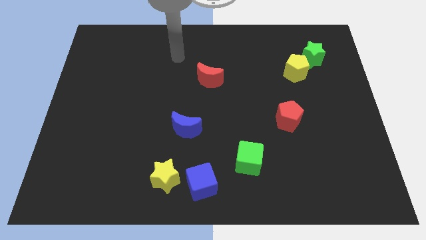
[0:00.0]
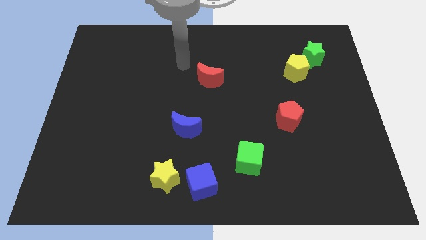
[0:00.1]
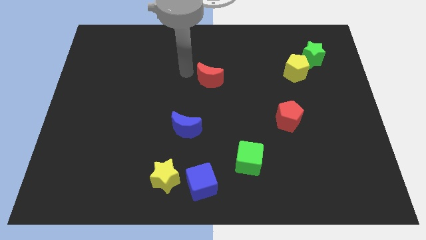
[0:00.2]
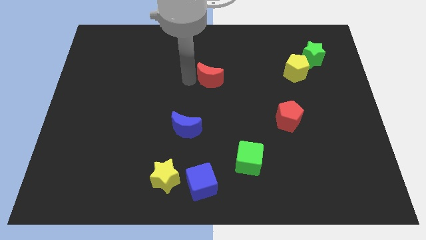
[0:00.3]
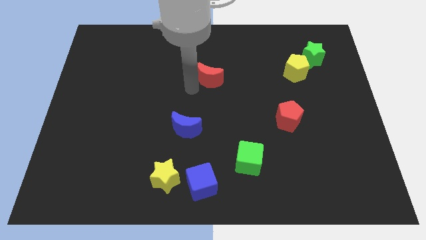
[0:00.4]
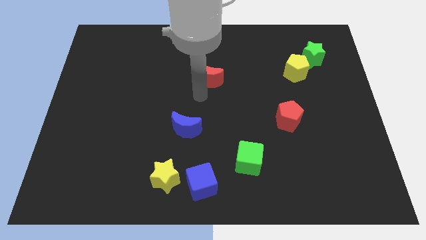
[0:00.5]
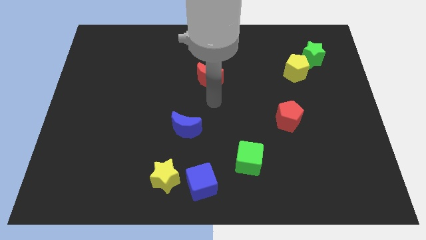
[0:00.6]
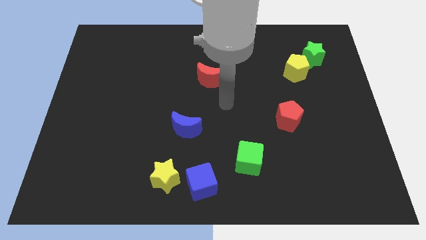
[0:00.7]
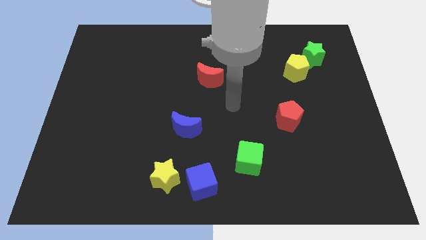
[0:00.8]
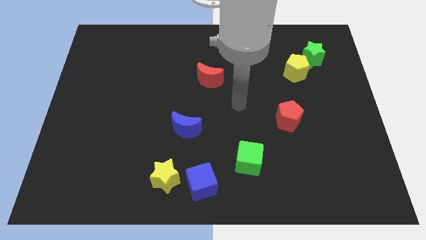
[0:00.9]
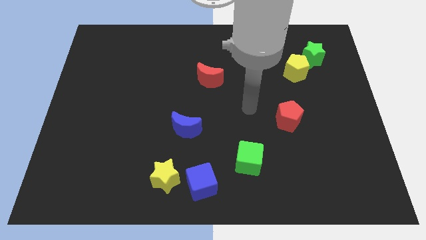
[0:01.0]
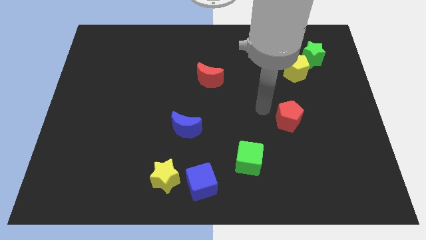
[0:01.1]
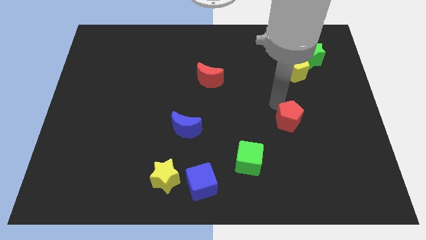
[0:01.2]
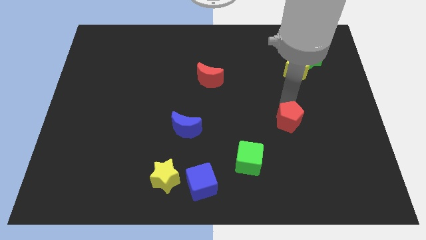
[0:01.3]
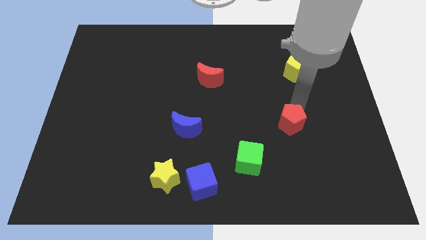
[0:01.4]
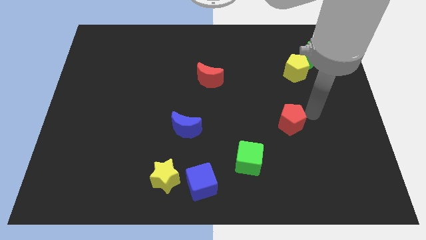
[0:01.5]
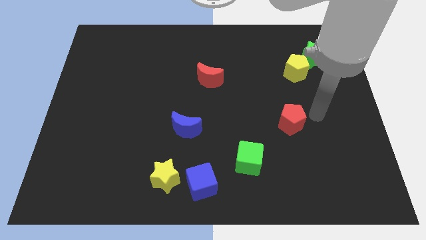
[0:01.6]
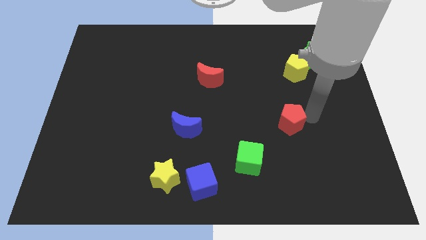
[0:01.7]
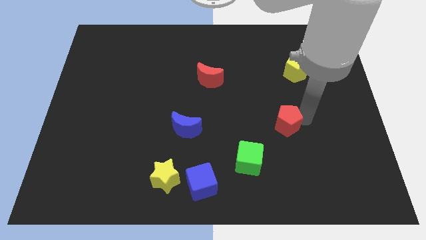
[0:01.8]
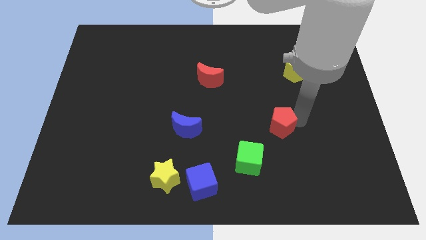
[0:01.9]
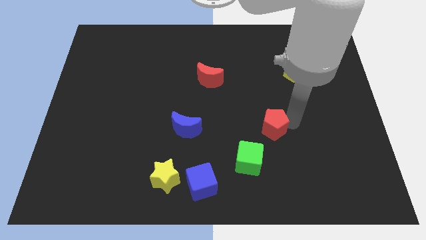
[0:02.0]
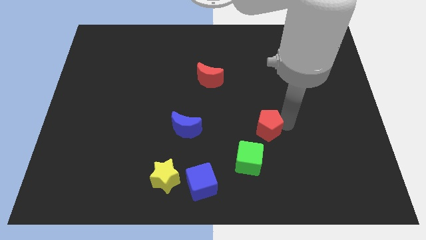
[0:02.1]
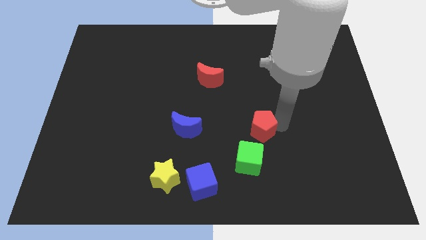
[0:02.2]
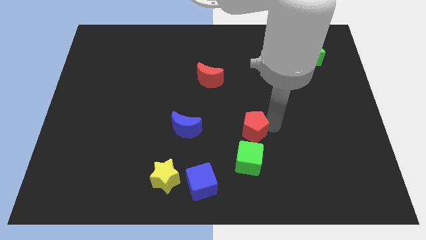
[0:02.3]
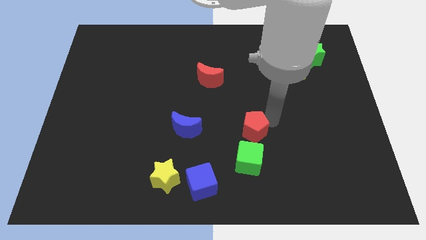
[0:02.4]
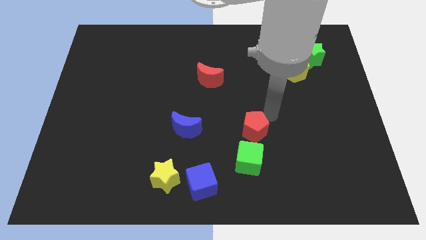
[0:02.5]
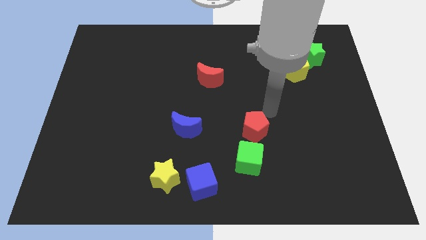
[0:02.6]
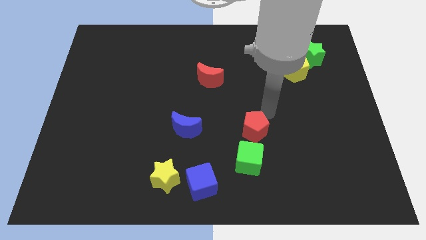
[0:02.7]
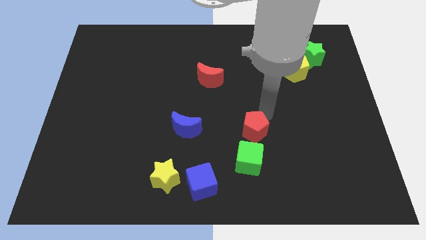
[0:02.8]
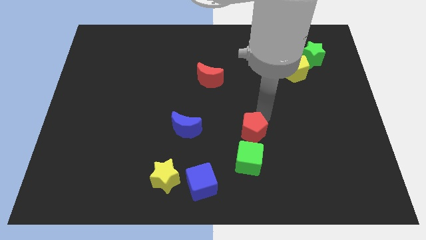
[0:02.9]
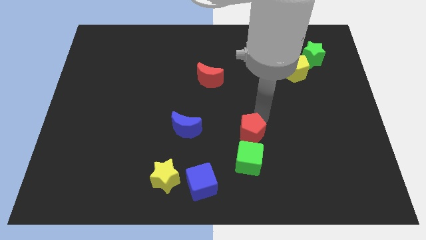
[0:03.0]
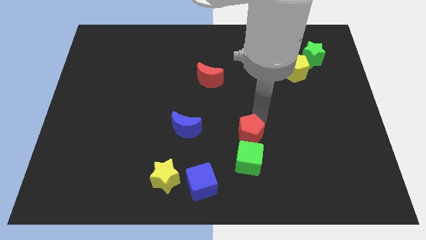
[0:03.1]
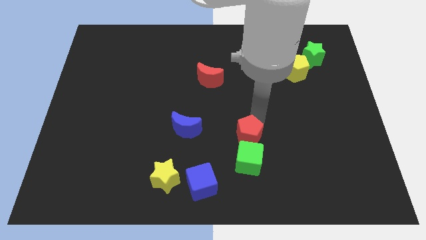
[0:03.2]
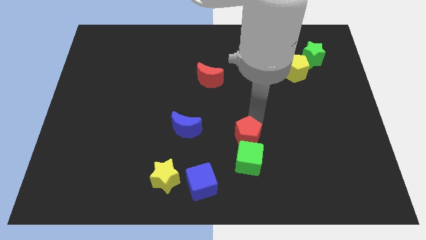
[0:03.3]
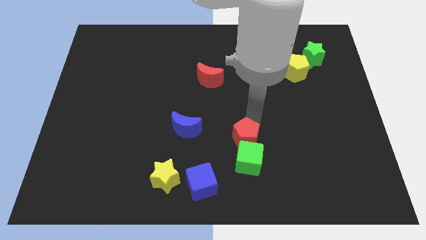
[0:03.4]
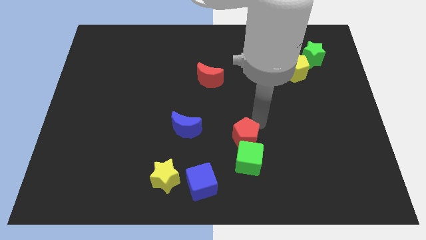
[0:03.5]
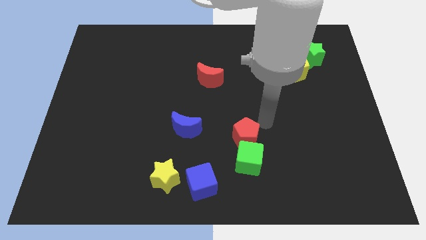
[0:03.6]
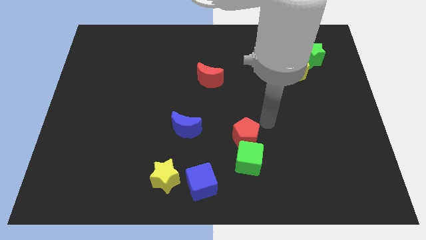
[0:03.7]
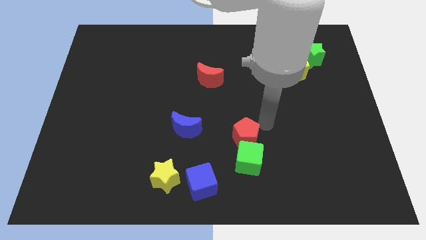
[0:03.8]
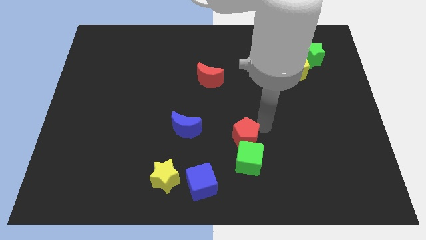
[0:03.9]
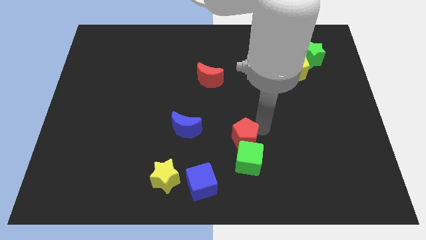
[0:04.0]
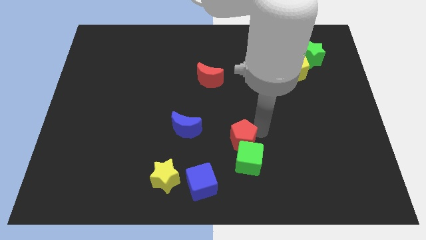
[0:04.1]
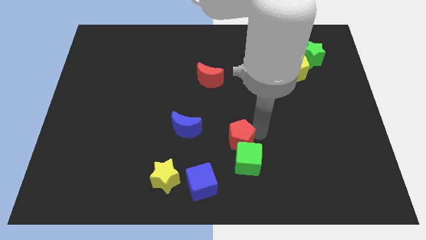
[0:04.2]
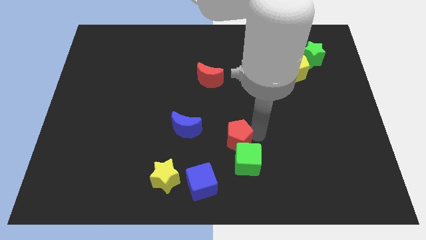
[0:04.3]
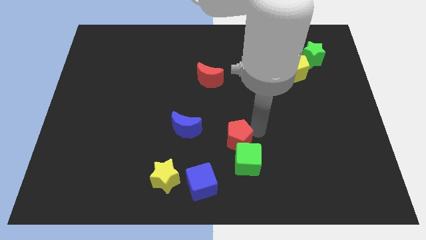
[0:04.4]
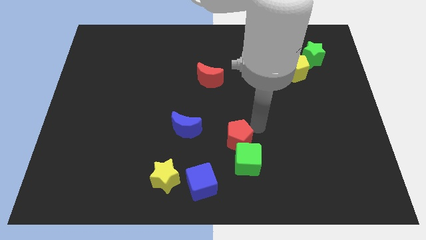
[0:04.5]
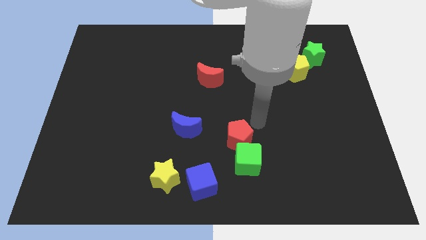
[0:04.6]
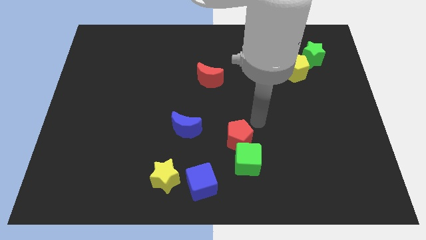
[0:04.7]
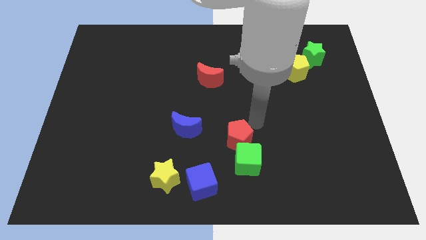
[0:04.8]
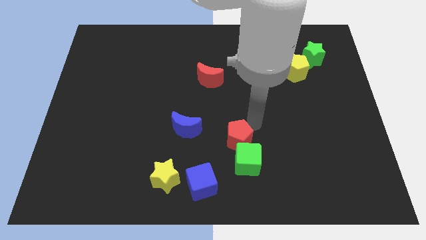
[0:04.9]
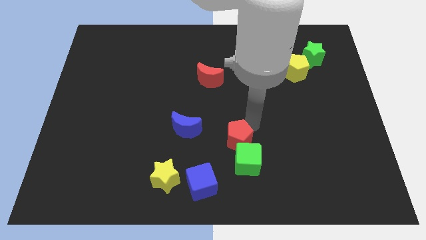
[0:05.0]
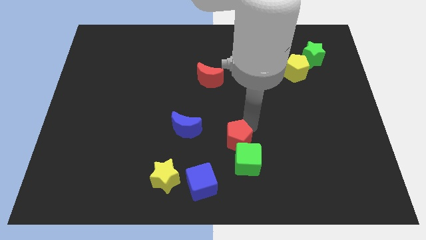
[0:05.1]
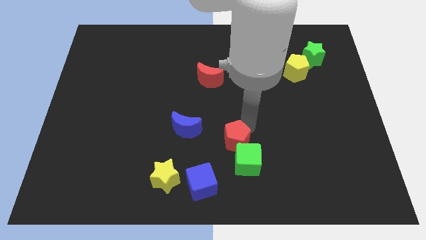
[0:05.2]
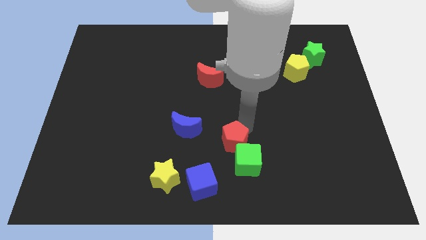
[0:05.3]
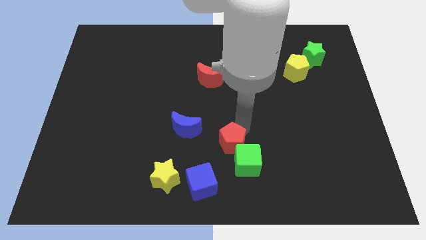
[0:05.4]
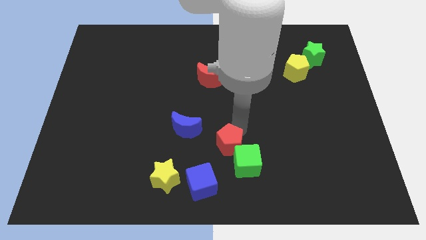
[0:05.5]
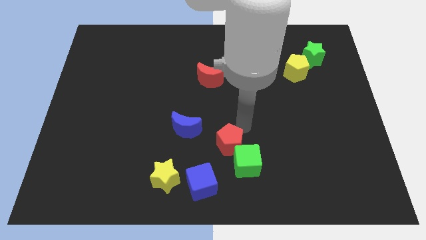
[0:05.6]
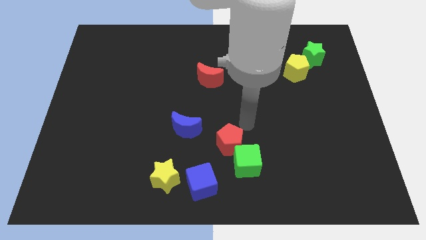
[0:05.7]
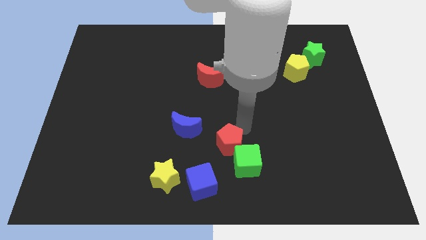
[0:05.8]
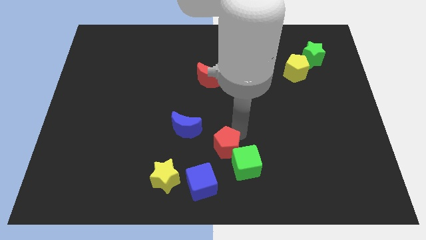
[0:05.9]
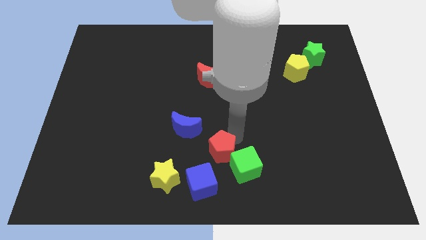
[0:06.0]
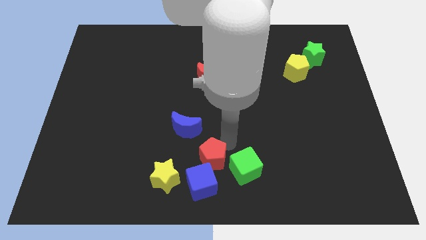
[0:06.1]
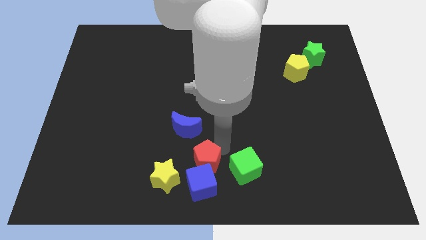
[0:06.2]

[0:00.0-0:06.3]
put the red pentagon to the blue cube

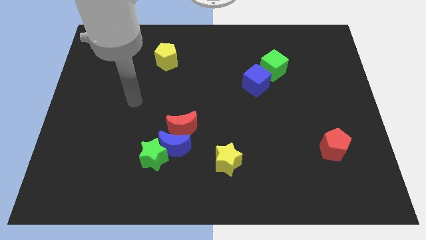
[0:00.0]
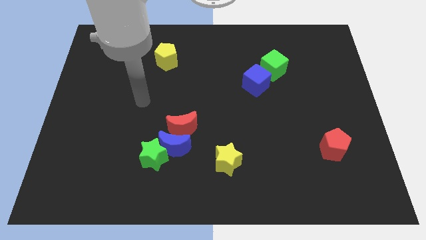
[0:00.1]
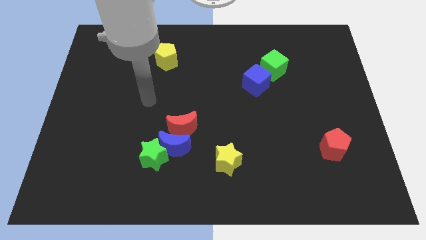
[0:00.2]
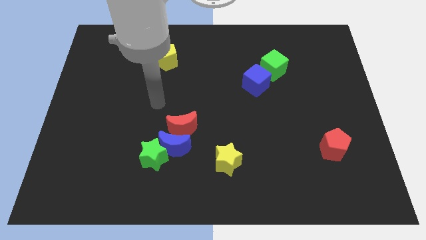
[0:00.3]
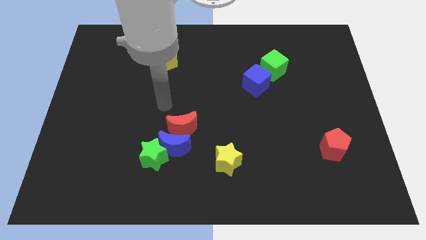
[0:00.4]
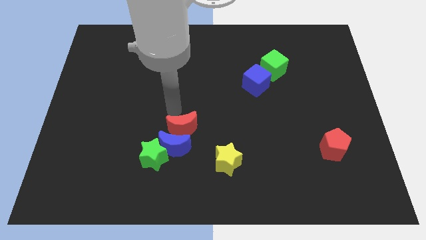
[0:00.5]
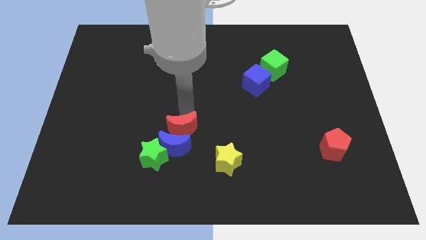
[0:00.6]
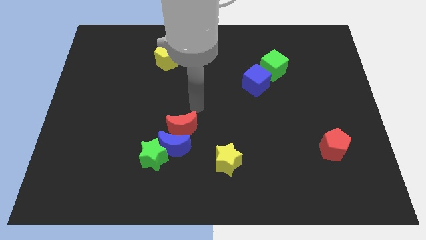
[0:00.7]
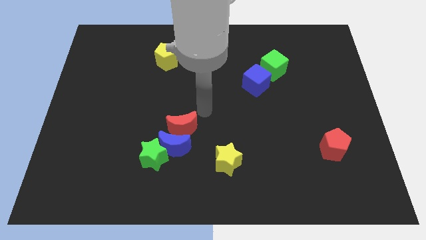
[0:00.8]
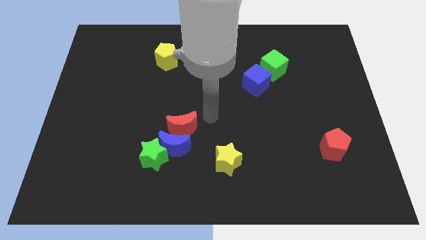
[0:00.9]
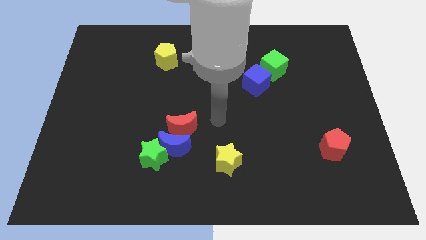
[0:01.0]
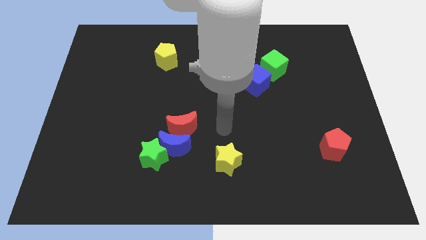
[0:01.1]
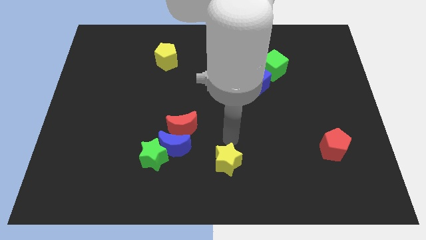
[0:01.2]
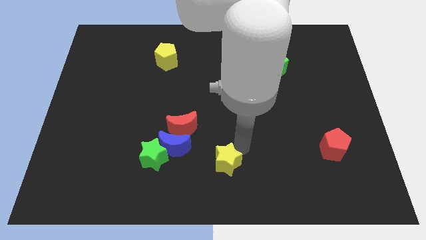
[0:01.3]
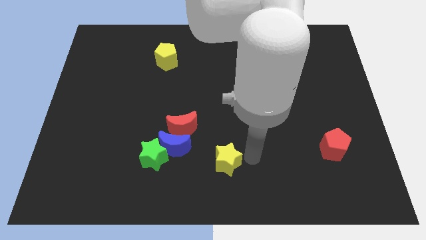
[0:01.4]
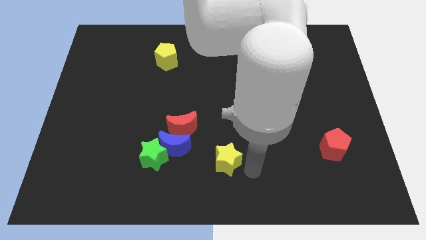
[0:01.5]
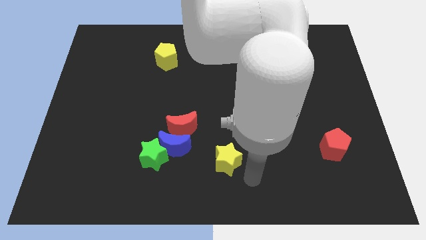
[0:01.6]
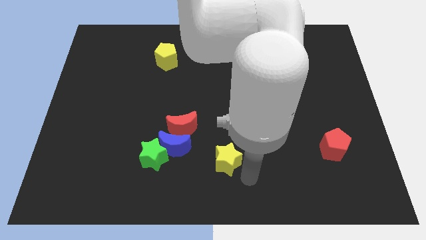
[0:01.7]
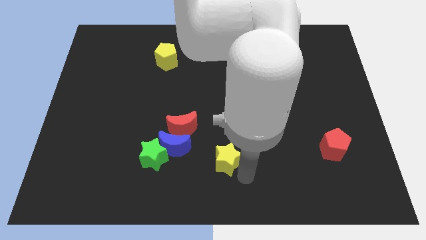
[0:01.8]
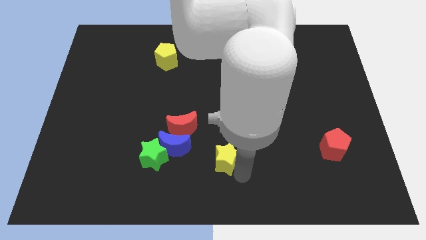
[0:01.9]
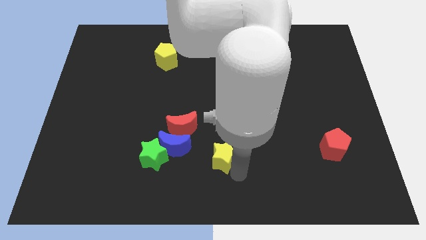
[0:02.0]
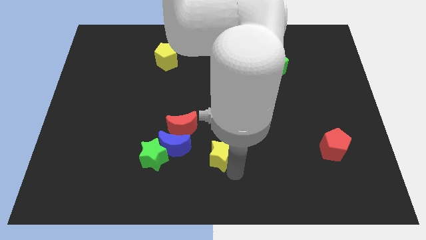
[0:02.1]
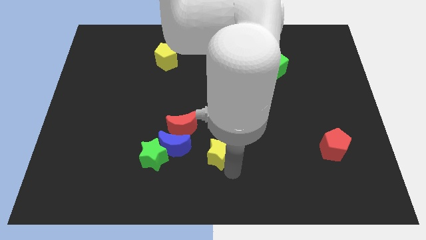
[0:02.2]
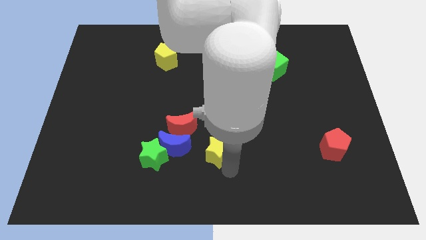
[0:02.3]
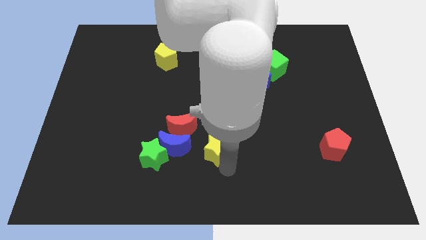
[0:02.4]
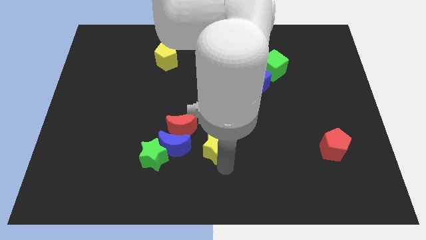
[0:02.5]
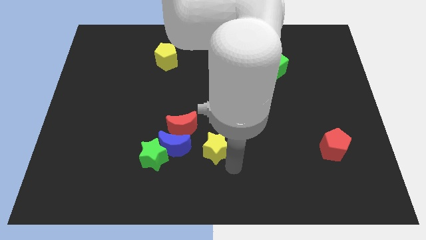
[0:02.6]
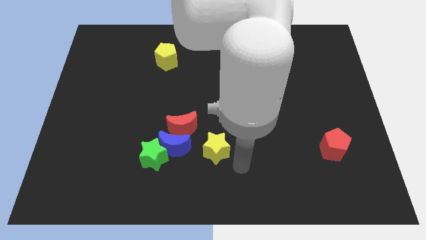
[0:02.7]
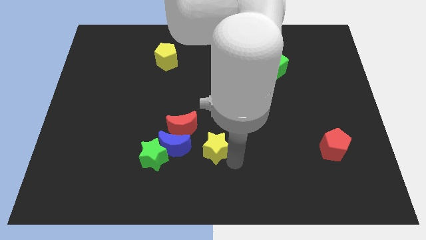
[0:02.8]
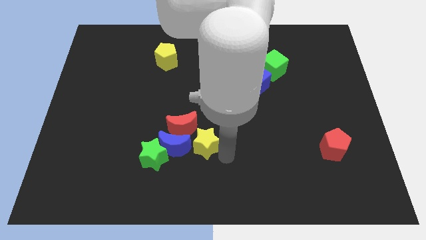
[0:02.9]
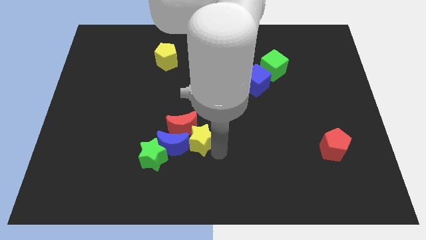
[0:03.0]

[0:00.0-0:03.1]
put the yellow star to the red moon
